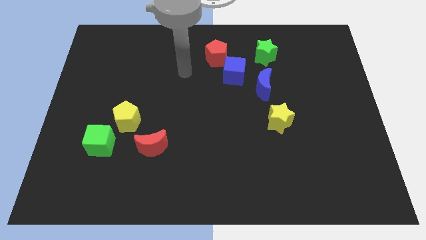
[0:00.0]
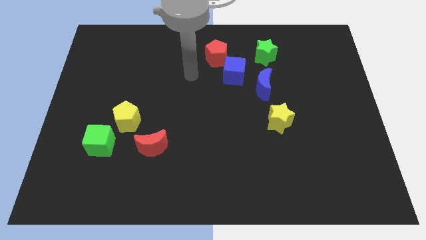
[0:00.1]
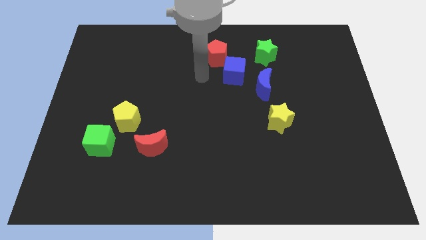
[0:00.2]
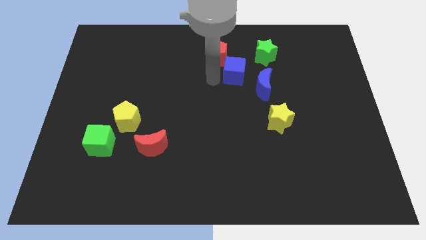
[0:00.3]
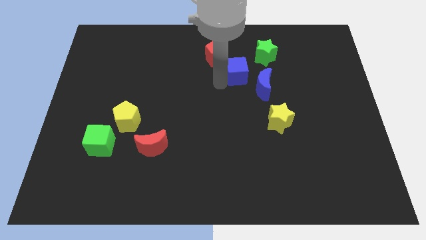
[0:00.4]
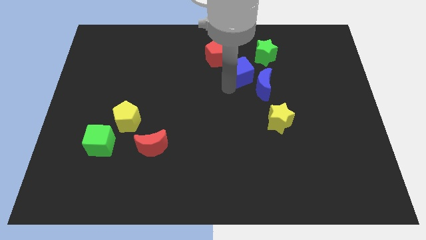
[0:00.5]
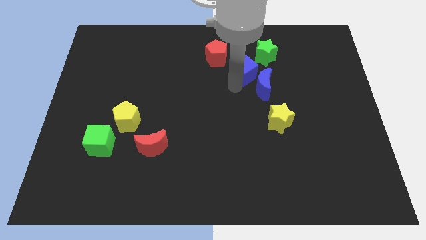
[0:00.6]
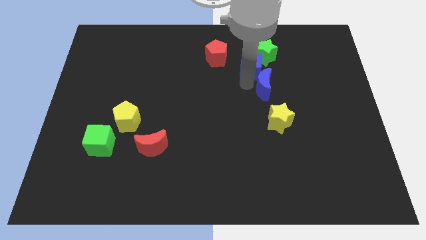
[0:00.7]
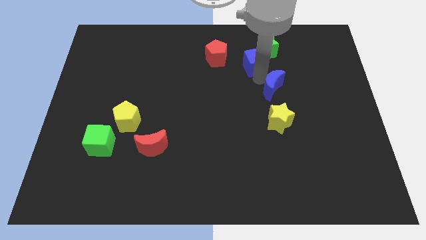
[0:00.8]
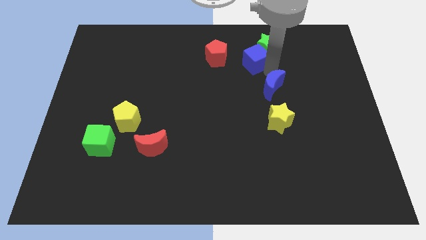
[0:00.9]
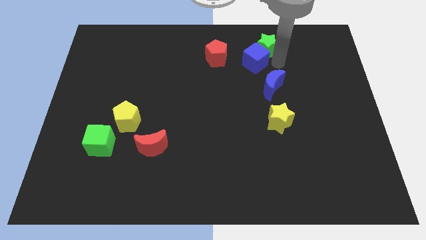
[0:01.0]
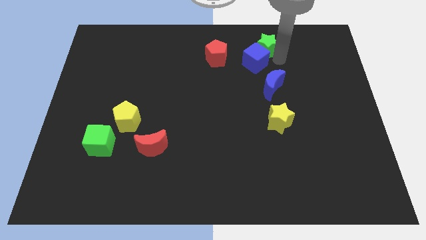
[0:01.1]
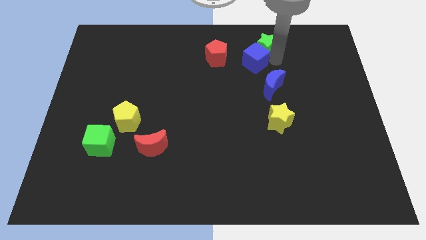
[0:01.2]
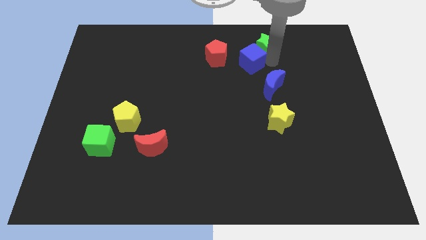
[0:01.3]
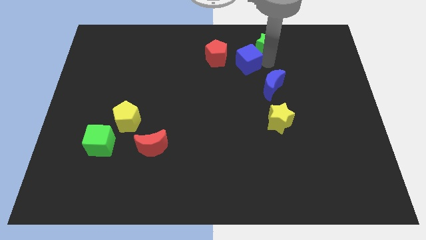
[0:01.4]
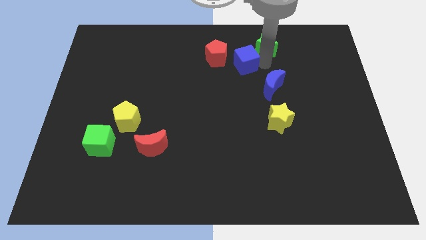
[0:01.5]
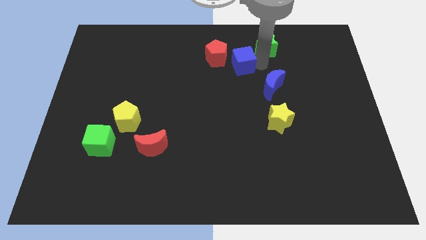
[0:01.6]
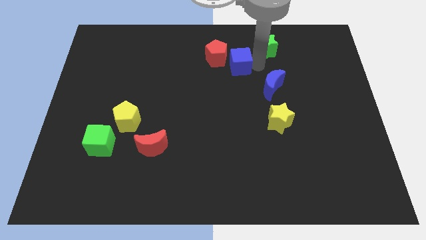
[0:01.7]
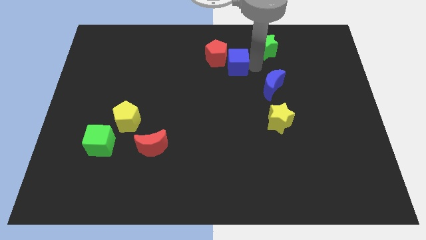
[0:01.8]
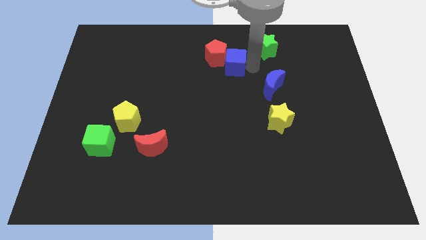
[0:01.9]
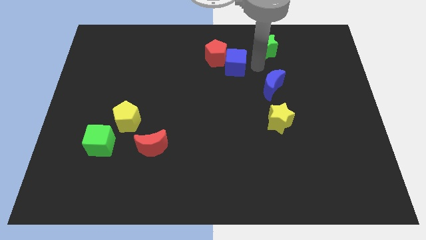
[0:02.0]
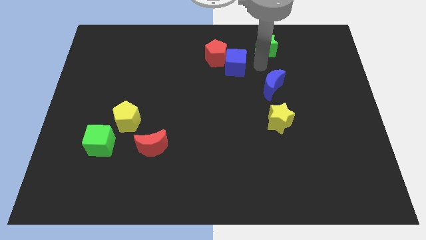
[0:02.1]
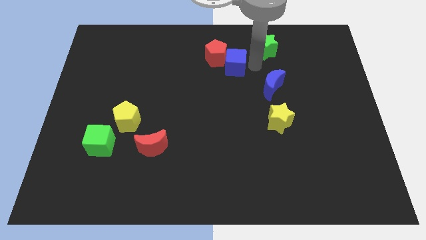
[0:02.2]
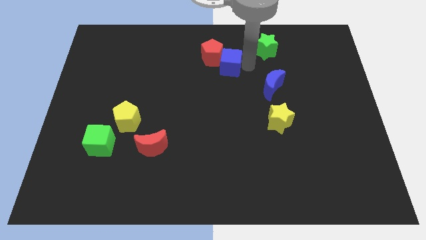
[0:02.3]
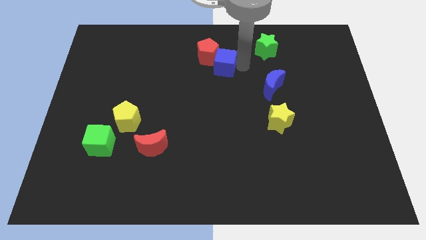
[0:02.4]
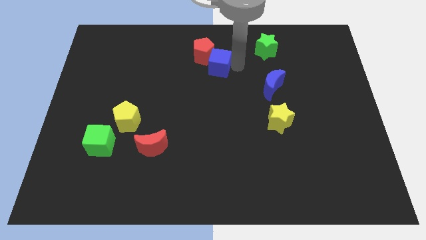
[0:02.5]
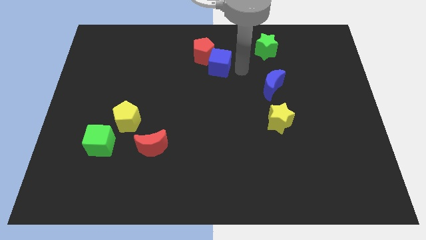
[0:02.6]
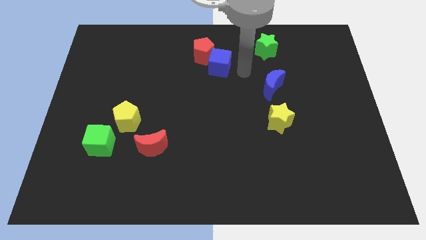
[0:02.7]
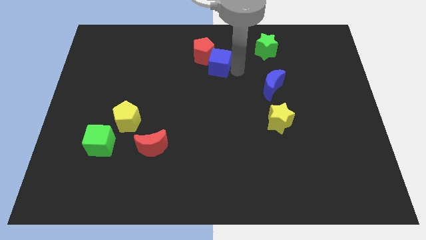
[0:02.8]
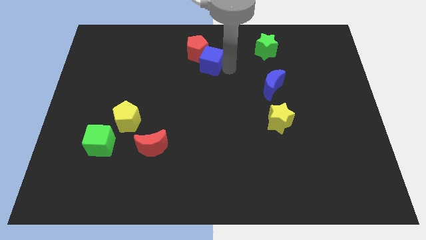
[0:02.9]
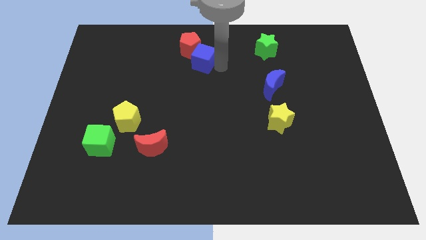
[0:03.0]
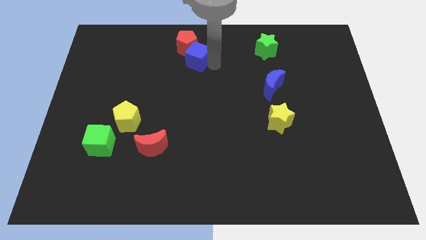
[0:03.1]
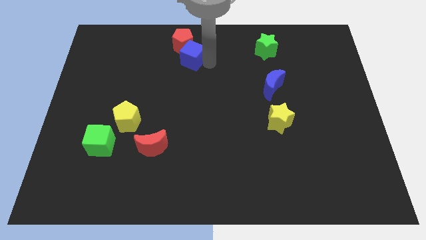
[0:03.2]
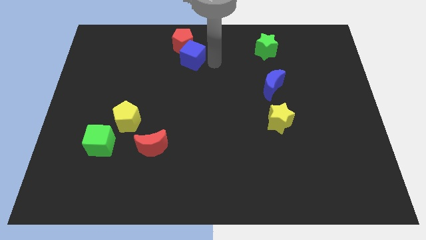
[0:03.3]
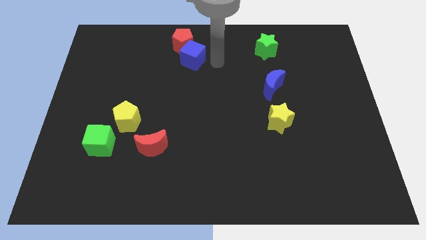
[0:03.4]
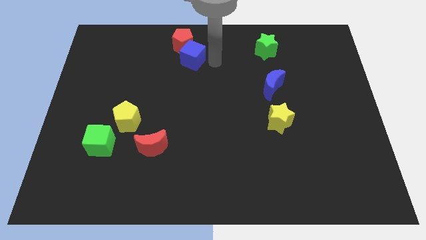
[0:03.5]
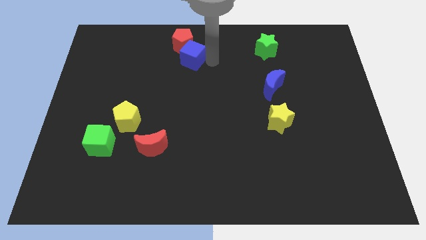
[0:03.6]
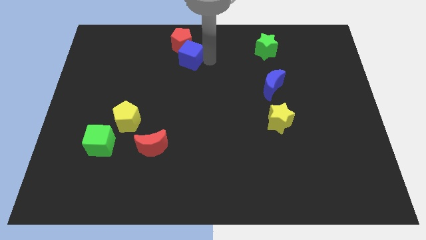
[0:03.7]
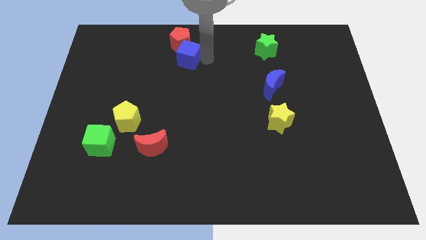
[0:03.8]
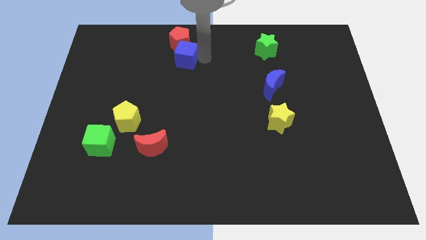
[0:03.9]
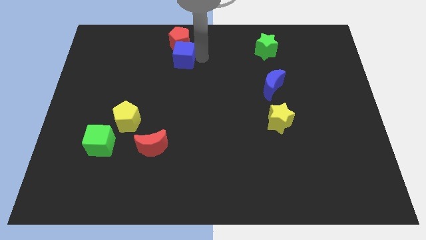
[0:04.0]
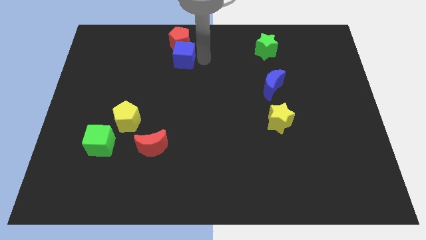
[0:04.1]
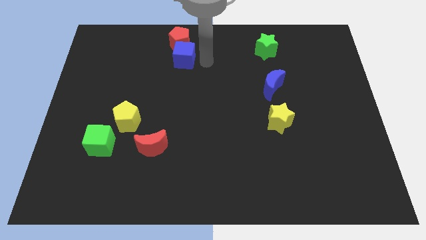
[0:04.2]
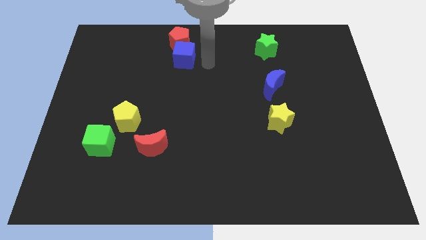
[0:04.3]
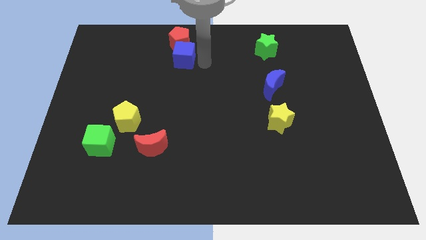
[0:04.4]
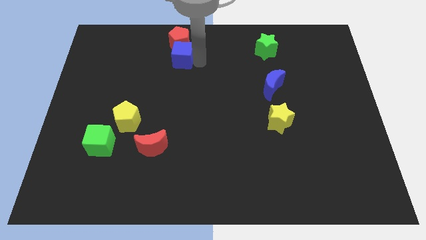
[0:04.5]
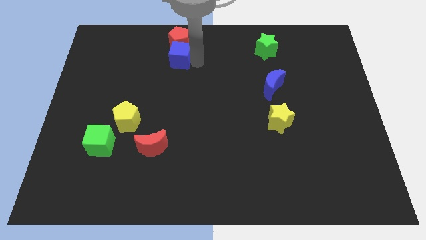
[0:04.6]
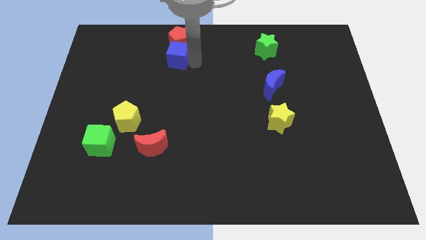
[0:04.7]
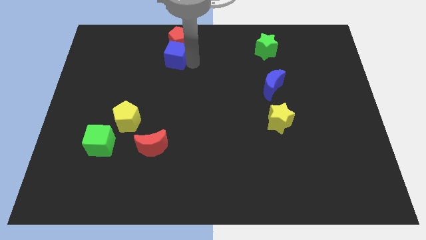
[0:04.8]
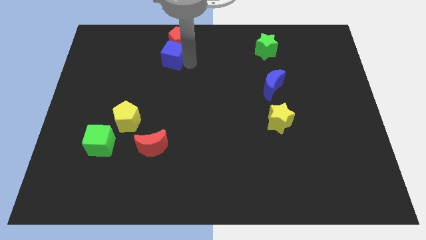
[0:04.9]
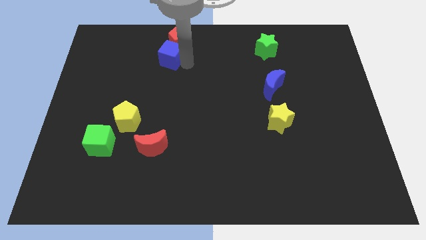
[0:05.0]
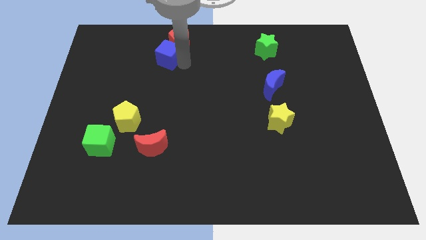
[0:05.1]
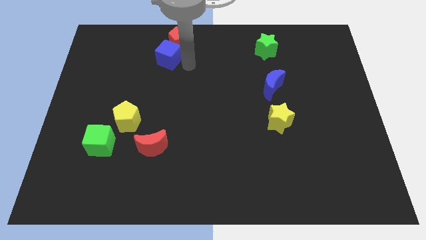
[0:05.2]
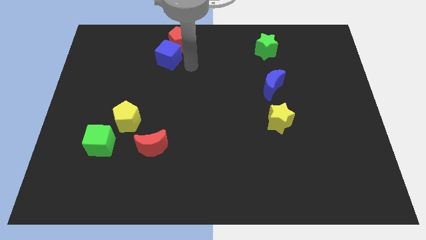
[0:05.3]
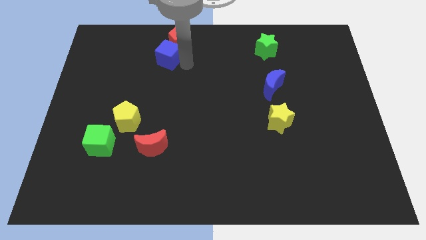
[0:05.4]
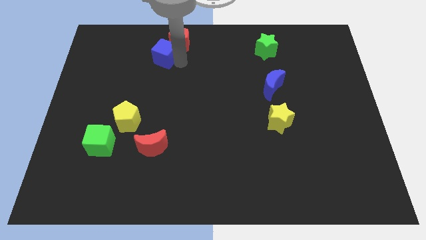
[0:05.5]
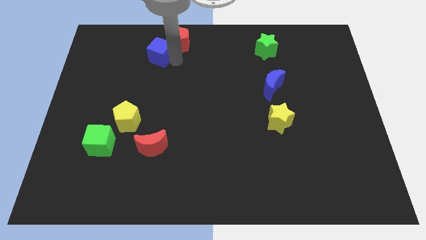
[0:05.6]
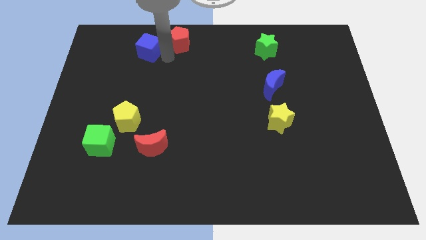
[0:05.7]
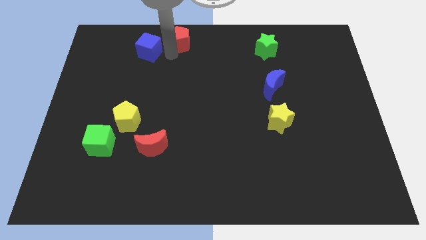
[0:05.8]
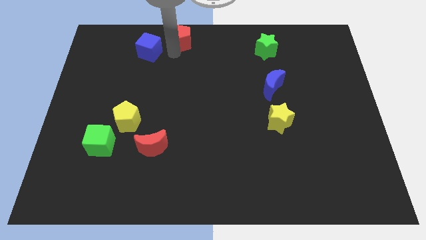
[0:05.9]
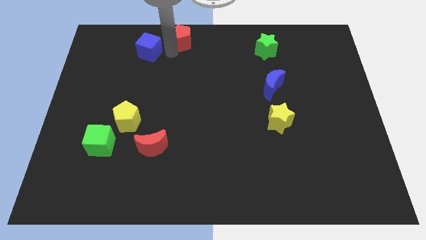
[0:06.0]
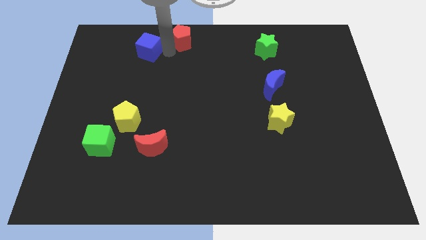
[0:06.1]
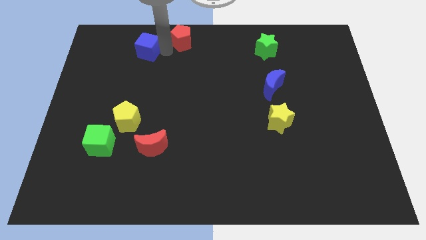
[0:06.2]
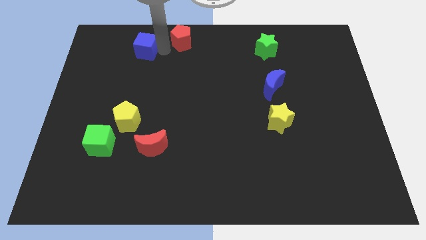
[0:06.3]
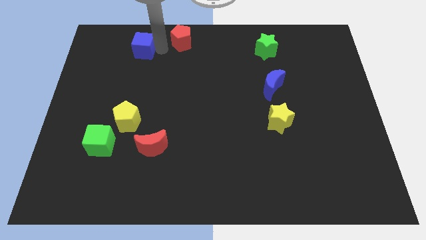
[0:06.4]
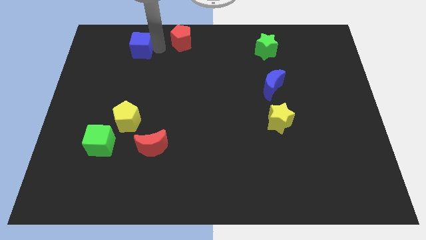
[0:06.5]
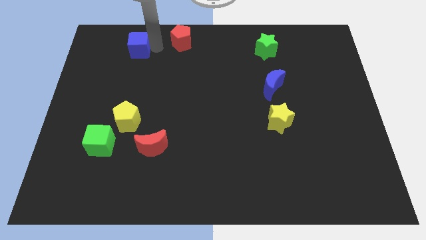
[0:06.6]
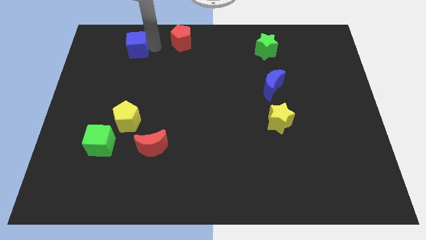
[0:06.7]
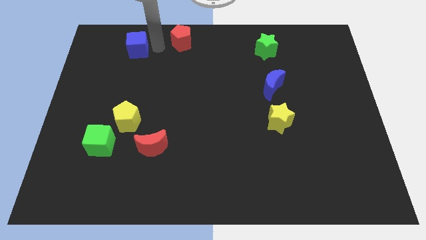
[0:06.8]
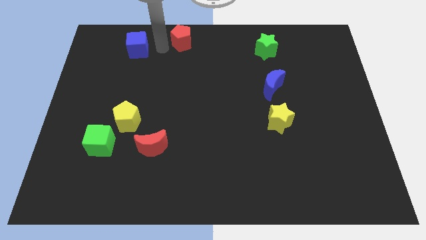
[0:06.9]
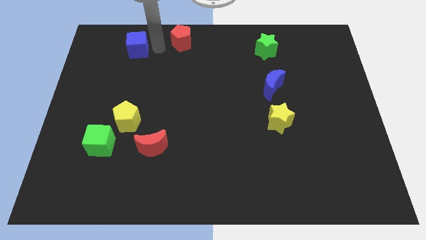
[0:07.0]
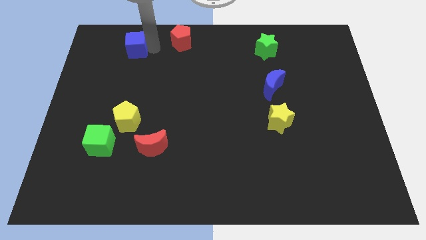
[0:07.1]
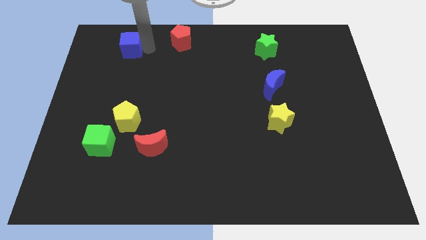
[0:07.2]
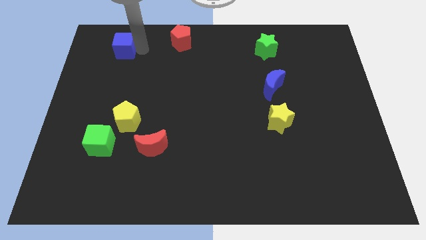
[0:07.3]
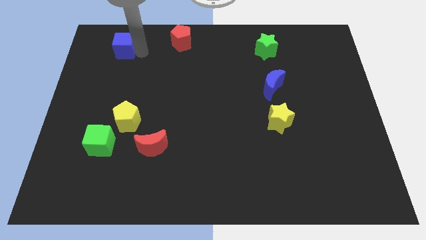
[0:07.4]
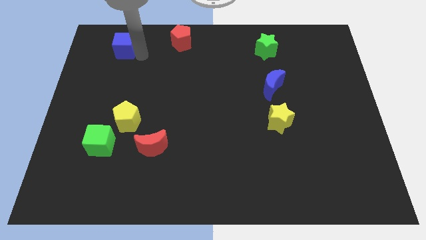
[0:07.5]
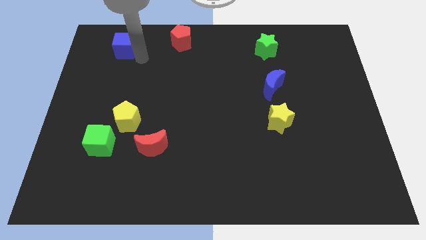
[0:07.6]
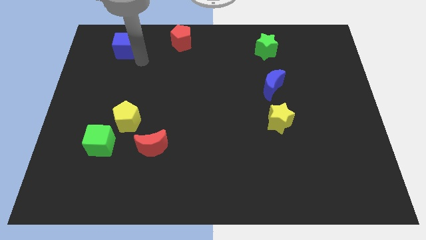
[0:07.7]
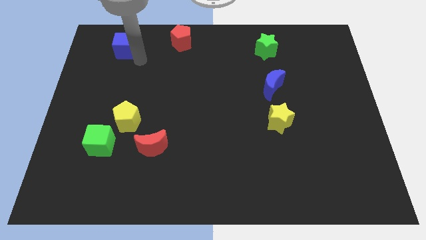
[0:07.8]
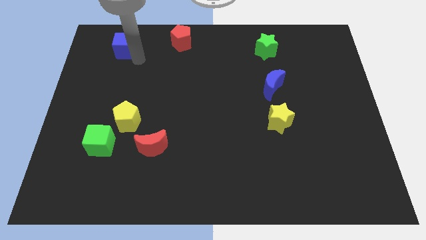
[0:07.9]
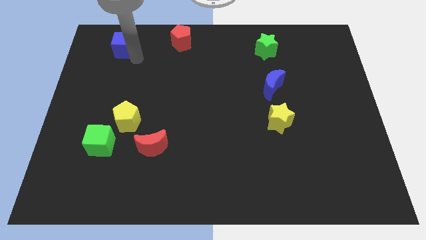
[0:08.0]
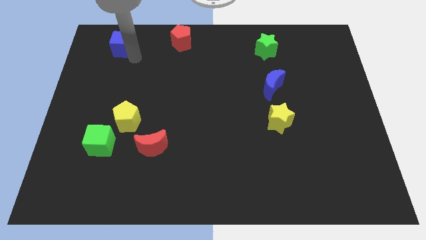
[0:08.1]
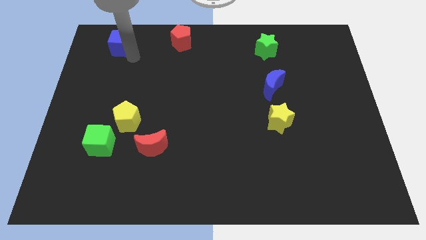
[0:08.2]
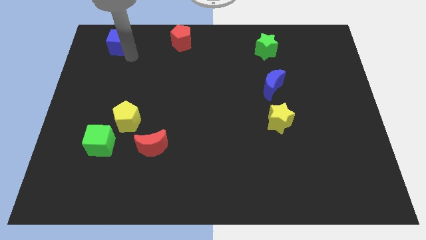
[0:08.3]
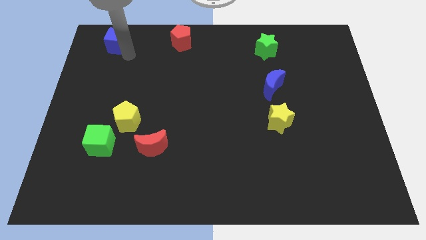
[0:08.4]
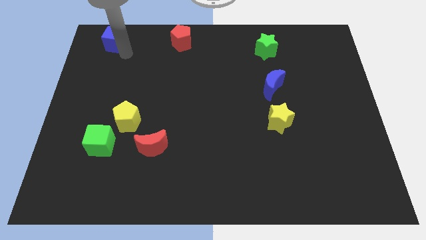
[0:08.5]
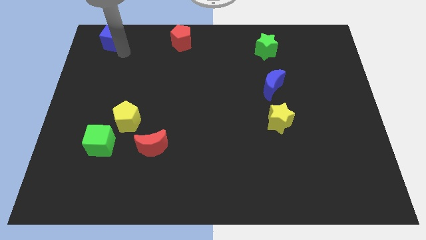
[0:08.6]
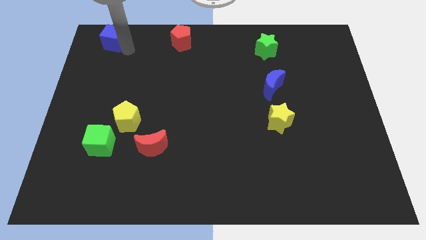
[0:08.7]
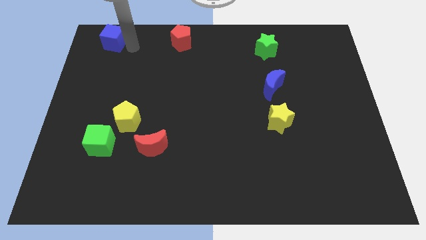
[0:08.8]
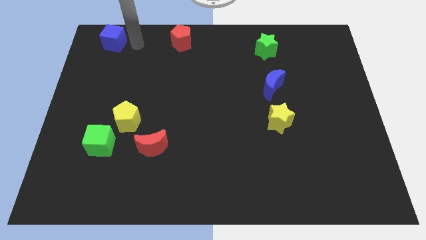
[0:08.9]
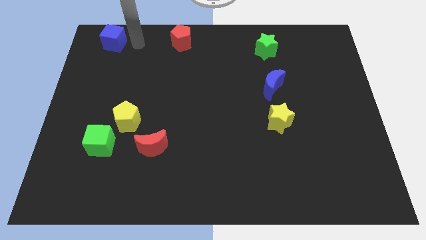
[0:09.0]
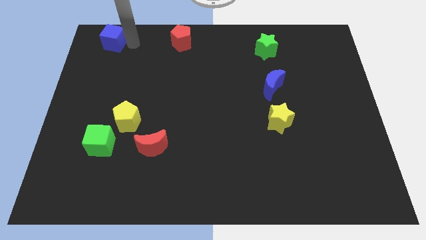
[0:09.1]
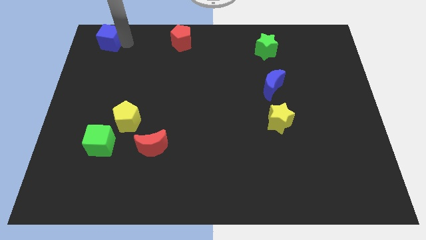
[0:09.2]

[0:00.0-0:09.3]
push the blue cube to the upper left corner
